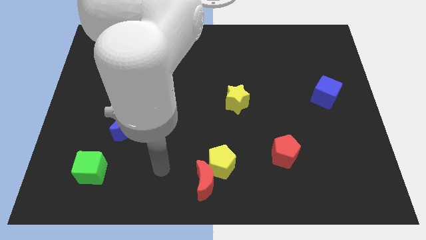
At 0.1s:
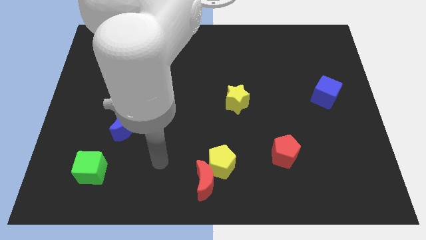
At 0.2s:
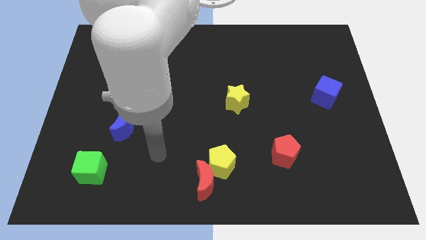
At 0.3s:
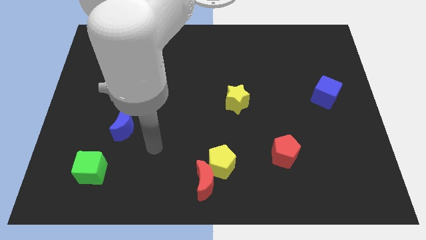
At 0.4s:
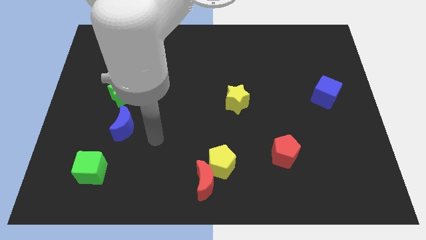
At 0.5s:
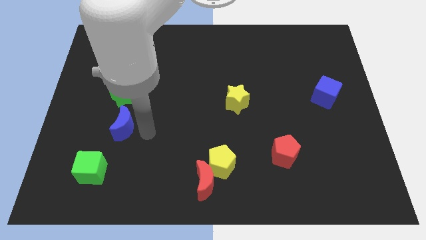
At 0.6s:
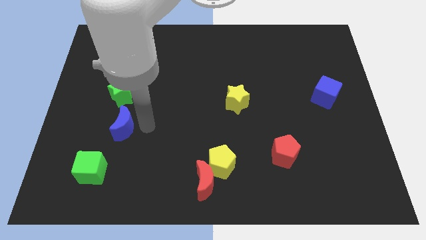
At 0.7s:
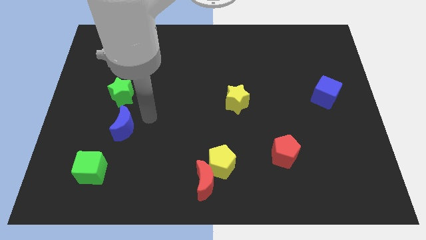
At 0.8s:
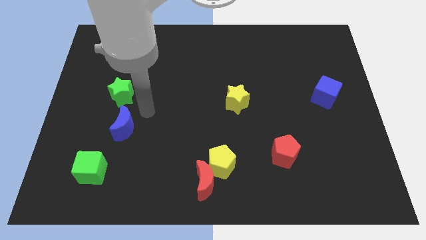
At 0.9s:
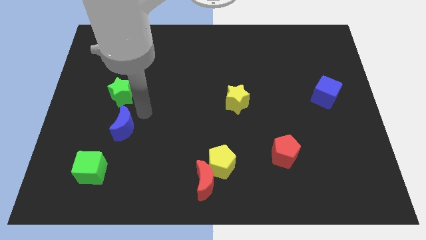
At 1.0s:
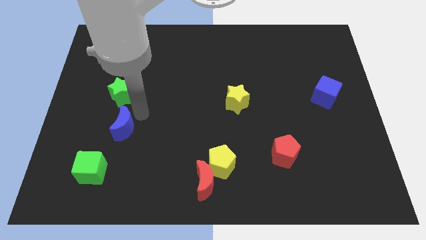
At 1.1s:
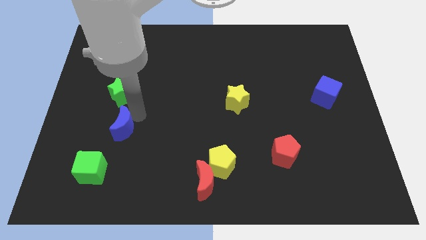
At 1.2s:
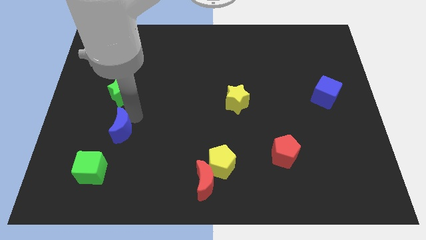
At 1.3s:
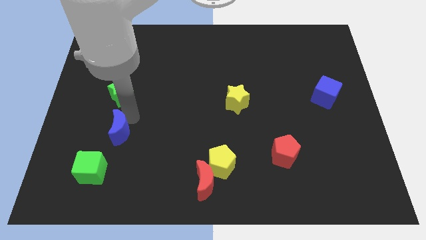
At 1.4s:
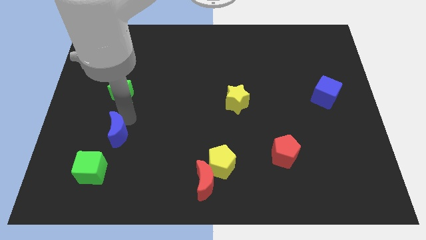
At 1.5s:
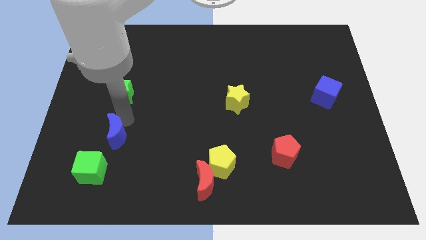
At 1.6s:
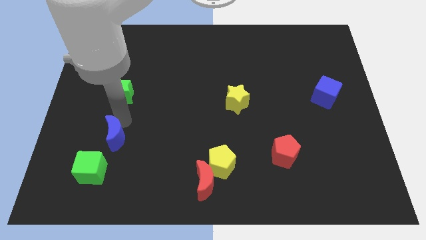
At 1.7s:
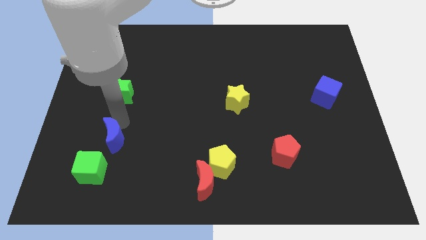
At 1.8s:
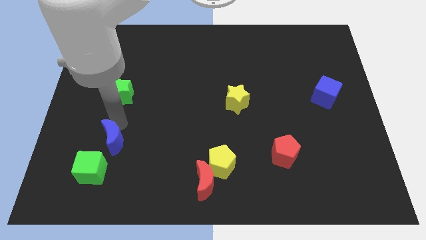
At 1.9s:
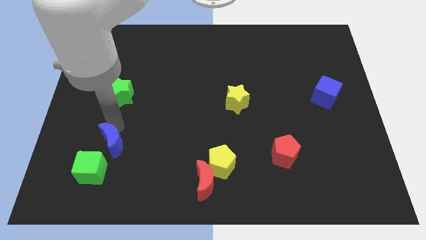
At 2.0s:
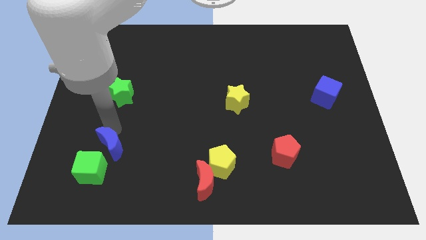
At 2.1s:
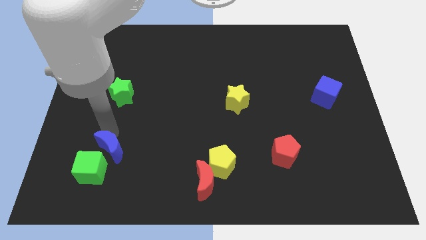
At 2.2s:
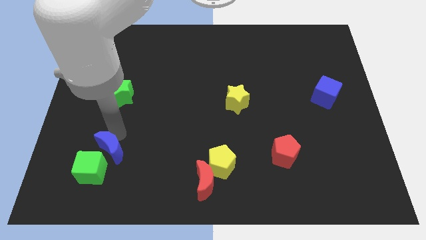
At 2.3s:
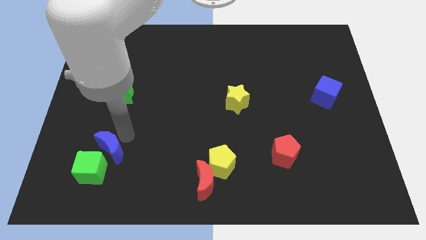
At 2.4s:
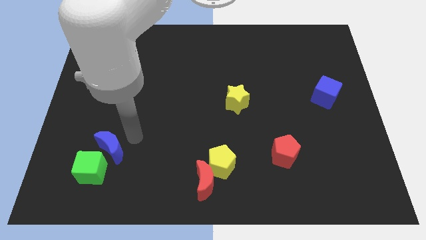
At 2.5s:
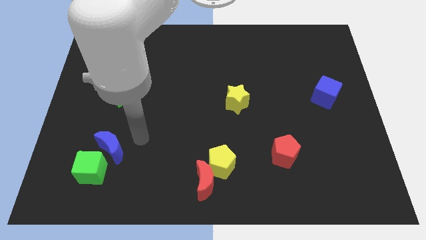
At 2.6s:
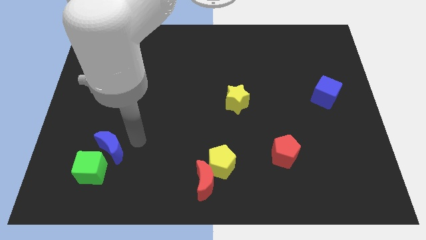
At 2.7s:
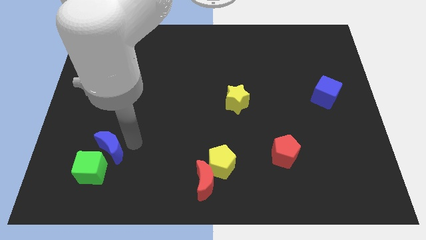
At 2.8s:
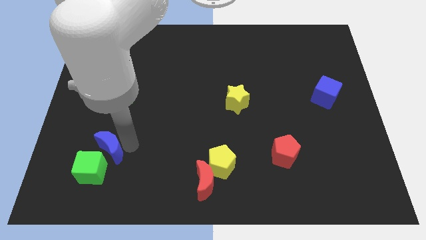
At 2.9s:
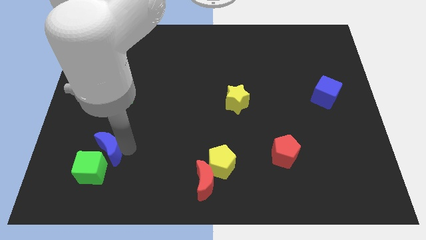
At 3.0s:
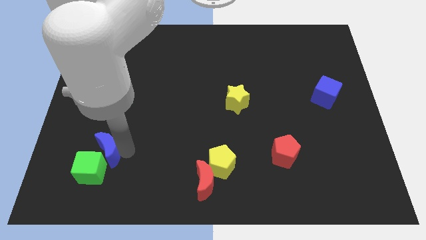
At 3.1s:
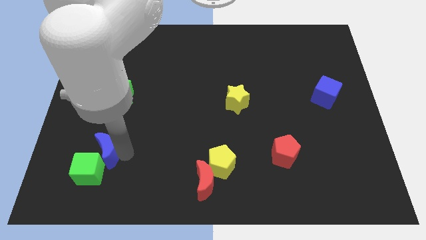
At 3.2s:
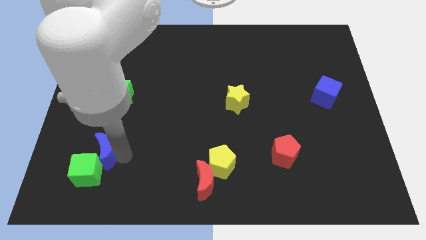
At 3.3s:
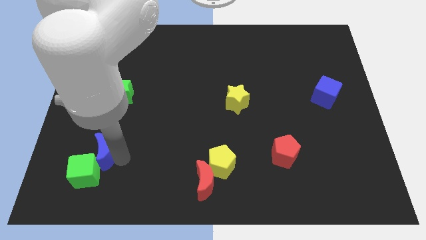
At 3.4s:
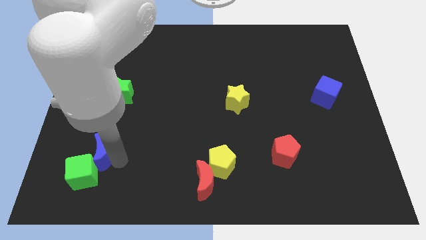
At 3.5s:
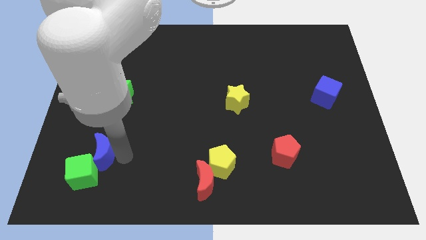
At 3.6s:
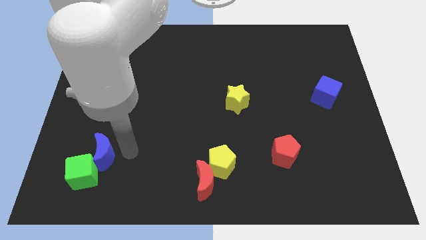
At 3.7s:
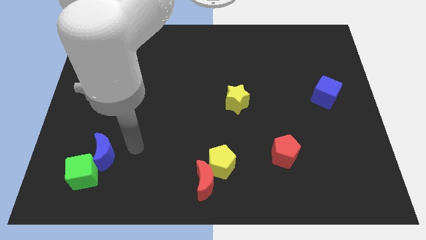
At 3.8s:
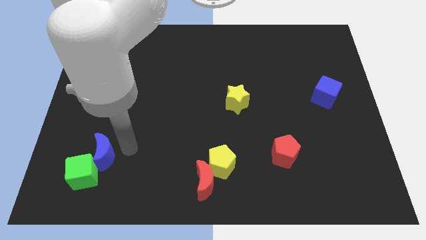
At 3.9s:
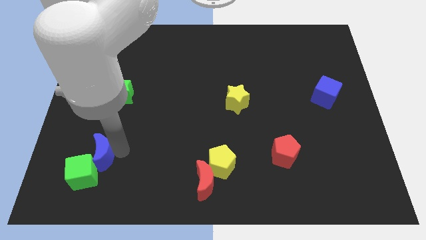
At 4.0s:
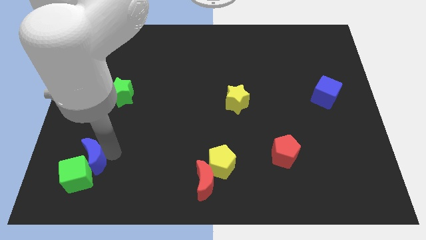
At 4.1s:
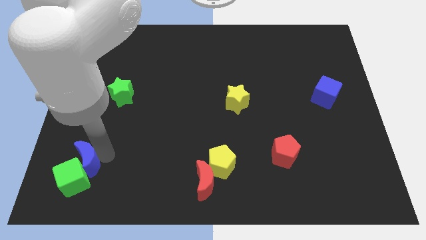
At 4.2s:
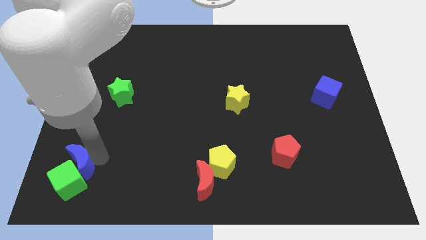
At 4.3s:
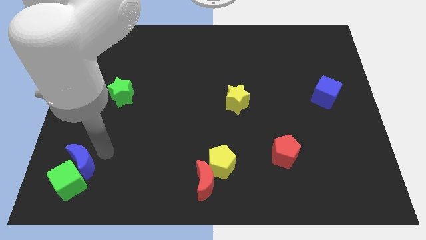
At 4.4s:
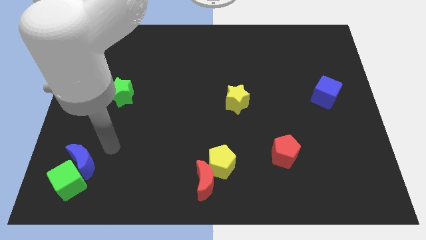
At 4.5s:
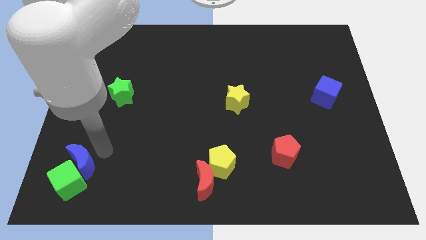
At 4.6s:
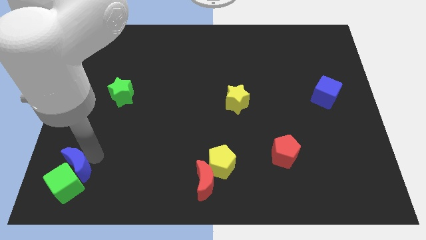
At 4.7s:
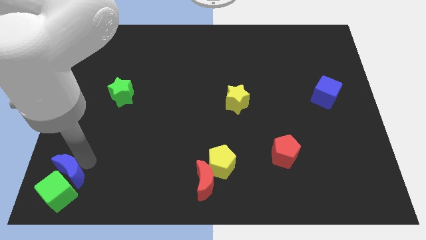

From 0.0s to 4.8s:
slide the blue moon to the bottom left of the board

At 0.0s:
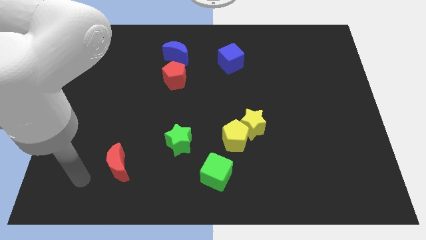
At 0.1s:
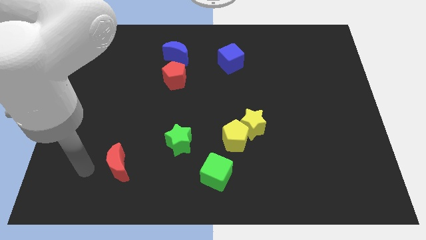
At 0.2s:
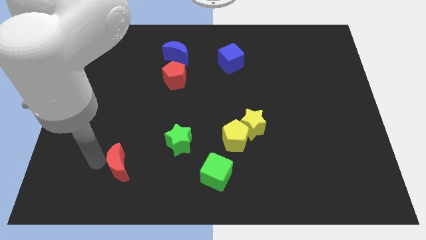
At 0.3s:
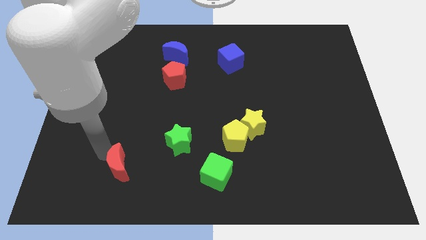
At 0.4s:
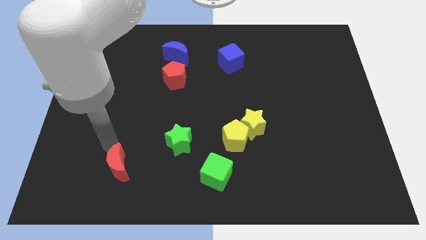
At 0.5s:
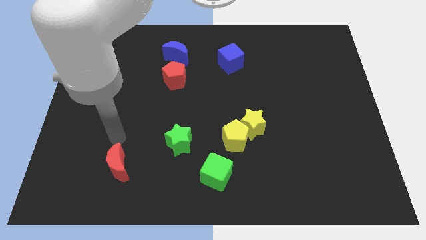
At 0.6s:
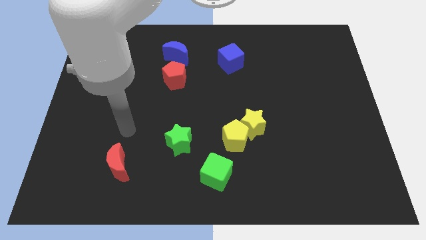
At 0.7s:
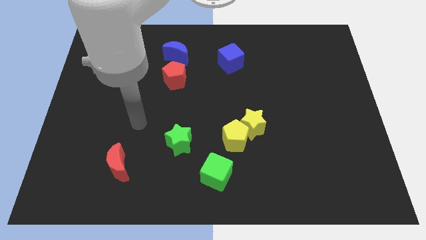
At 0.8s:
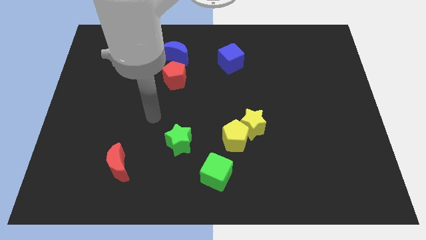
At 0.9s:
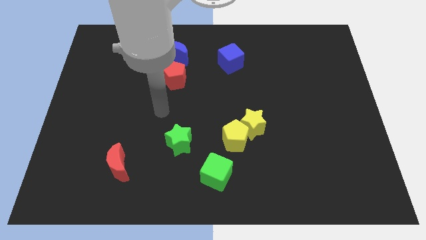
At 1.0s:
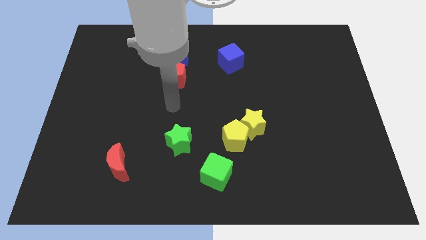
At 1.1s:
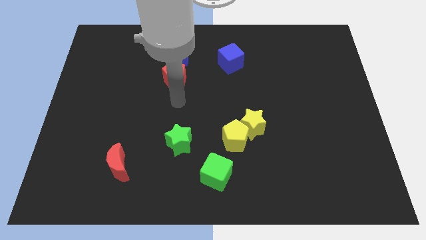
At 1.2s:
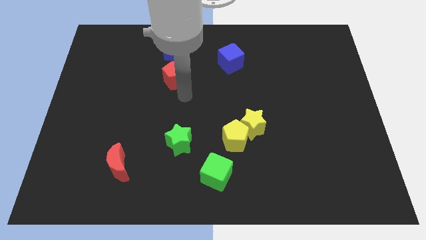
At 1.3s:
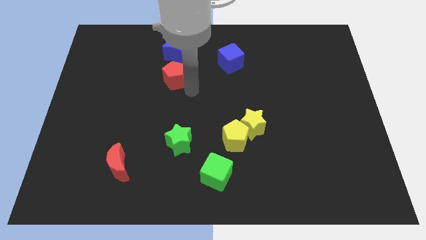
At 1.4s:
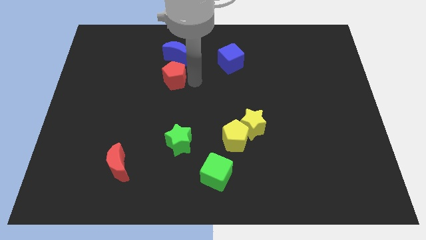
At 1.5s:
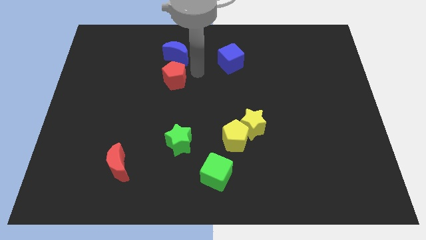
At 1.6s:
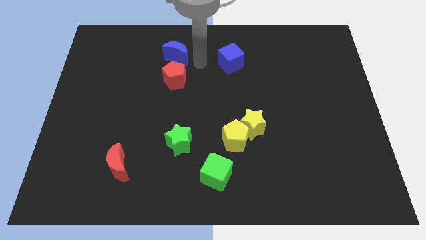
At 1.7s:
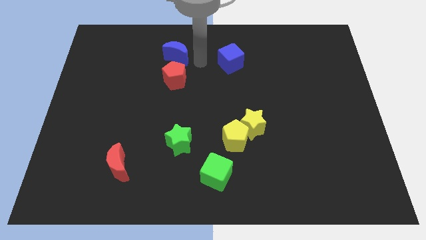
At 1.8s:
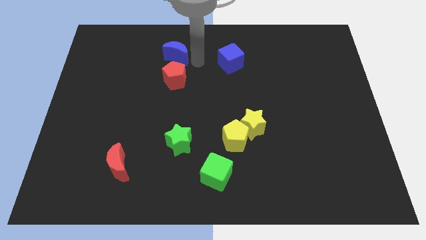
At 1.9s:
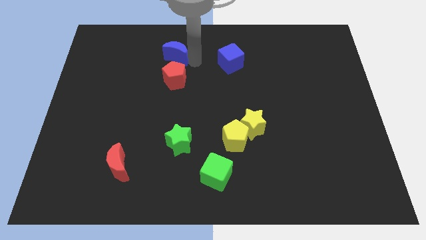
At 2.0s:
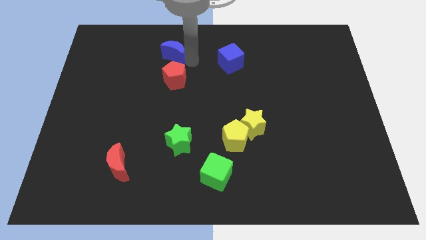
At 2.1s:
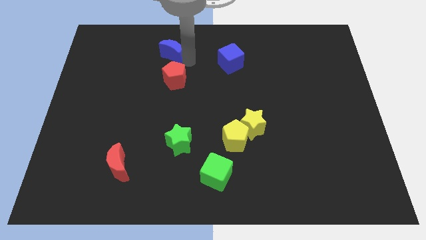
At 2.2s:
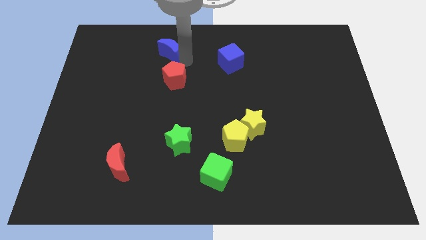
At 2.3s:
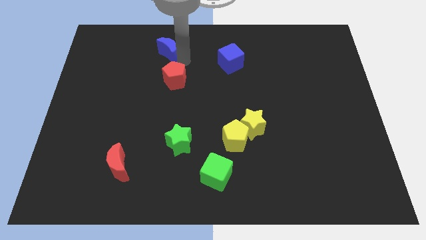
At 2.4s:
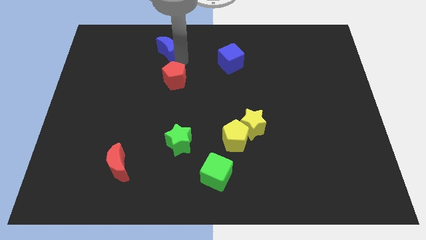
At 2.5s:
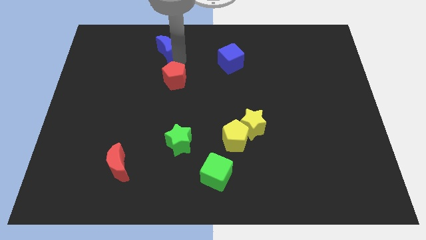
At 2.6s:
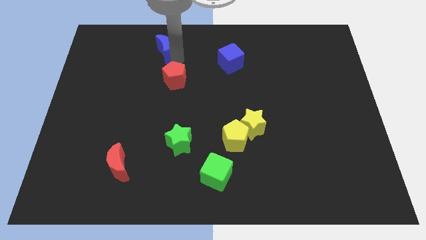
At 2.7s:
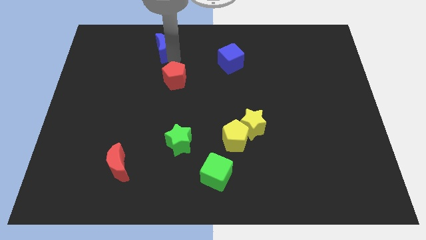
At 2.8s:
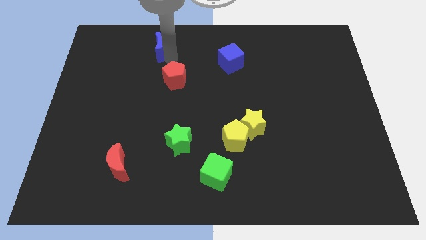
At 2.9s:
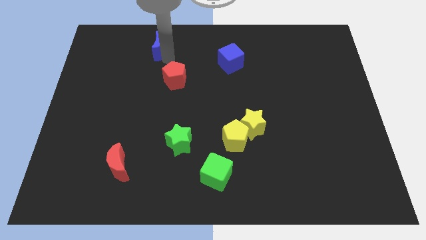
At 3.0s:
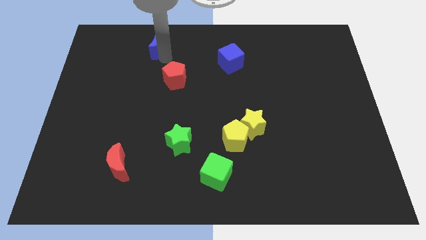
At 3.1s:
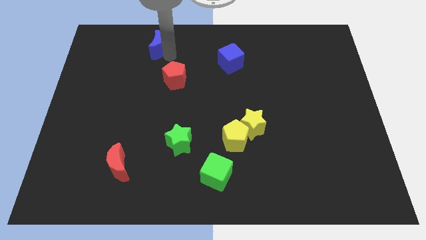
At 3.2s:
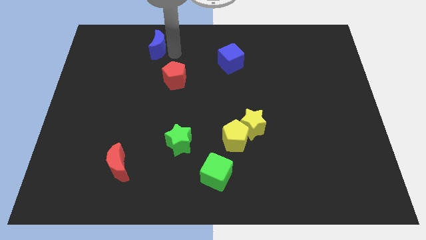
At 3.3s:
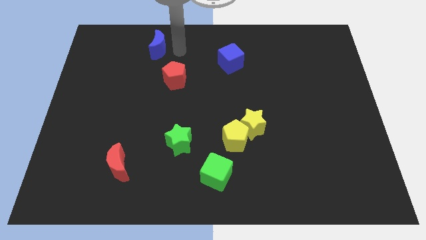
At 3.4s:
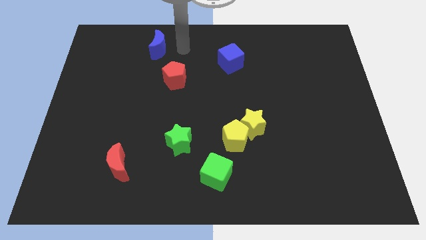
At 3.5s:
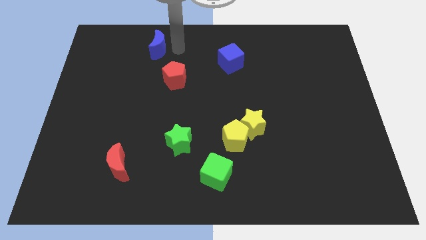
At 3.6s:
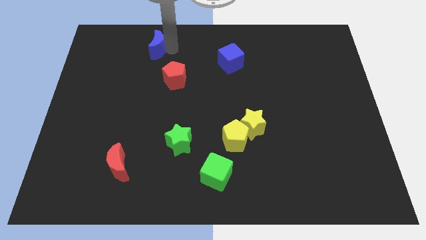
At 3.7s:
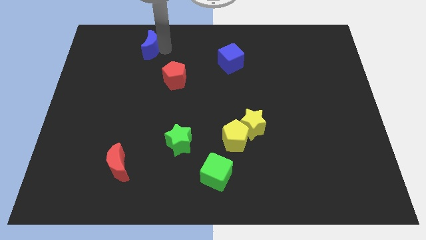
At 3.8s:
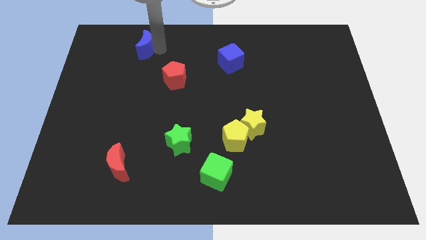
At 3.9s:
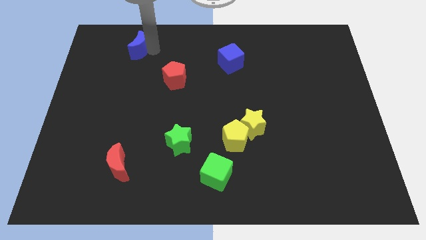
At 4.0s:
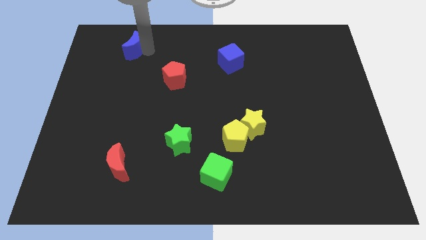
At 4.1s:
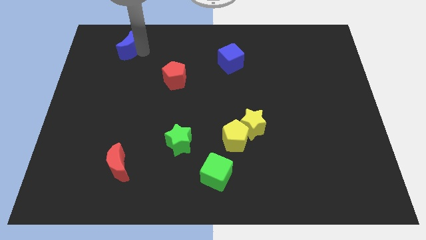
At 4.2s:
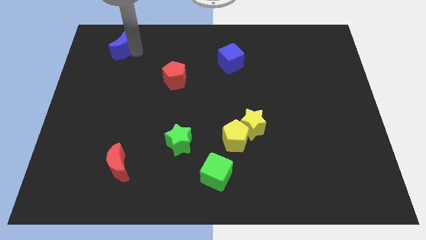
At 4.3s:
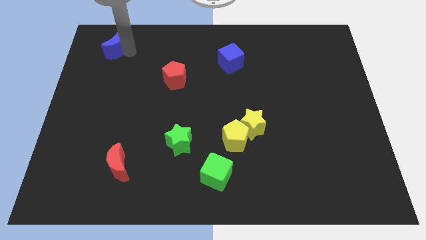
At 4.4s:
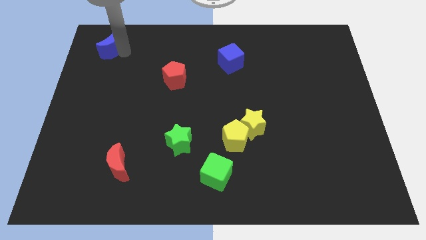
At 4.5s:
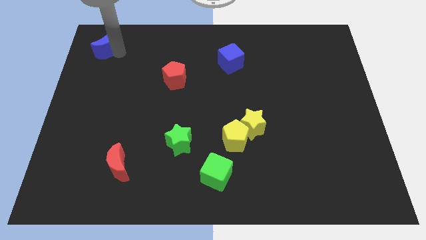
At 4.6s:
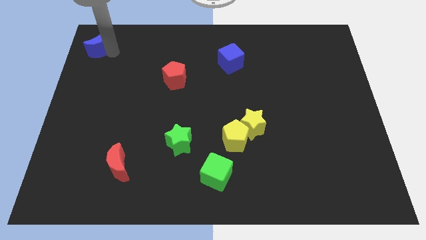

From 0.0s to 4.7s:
push the blue moon to the top left
